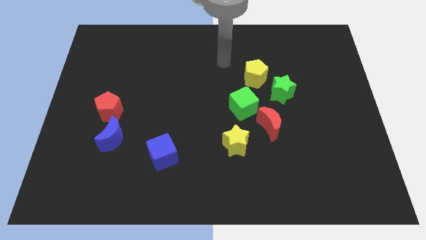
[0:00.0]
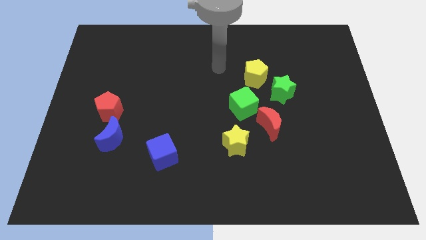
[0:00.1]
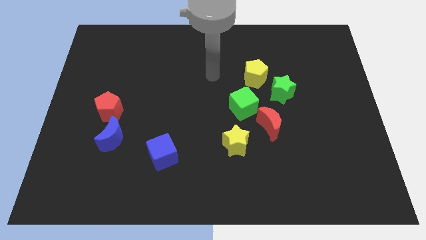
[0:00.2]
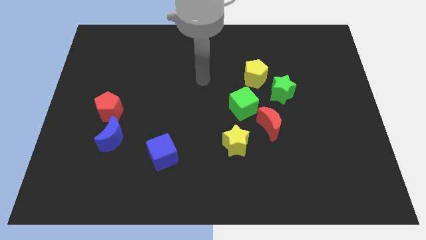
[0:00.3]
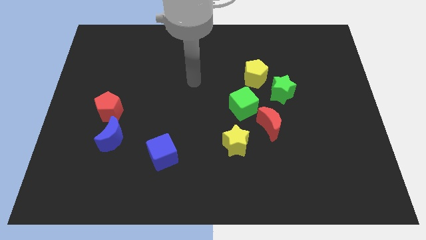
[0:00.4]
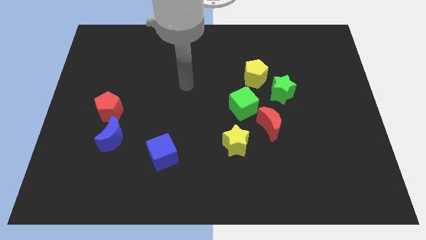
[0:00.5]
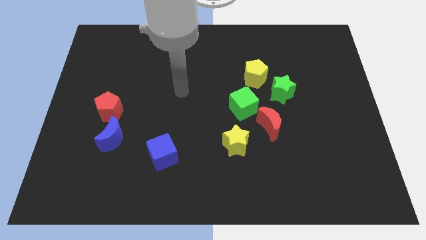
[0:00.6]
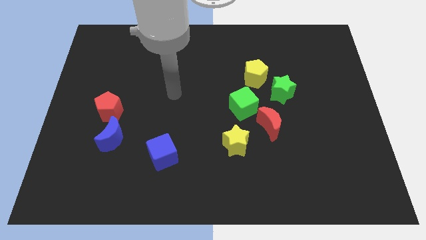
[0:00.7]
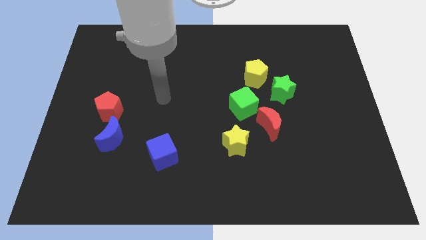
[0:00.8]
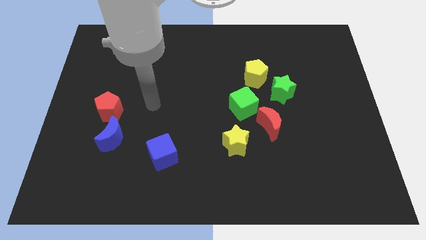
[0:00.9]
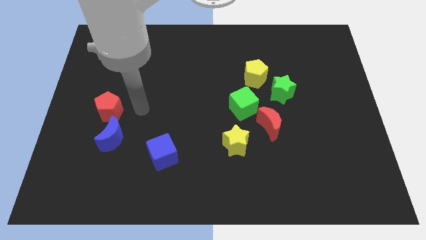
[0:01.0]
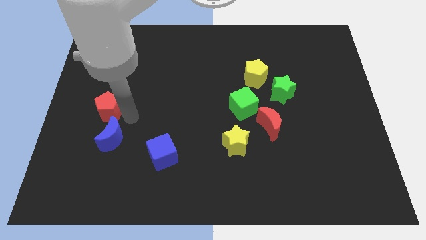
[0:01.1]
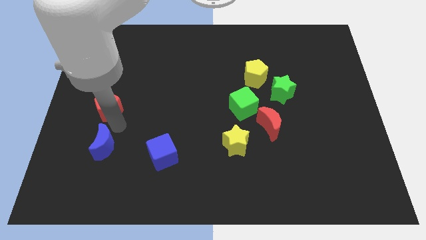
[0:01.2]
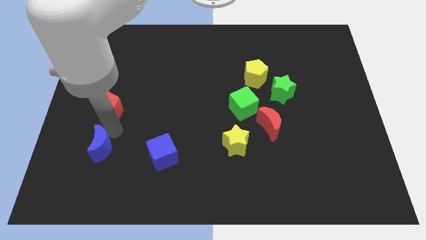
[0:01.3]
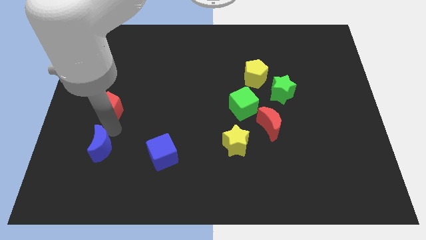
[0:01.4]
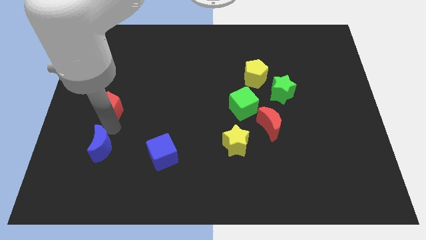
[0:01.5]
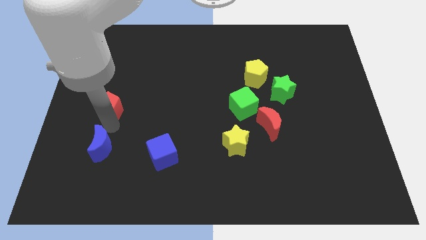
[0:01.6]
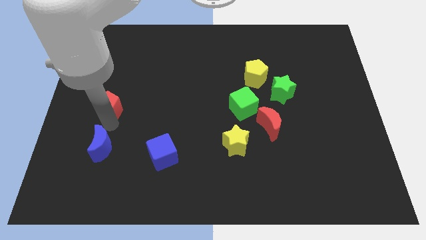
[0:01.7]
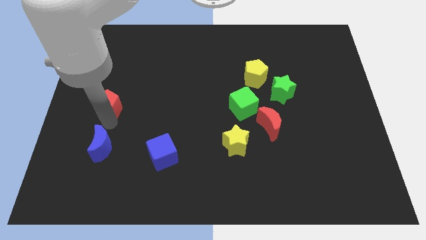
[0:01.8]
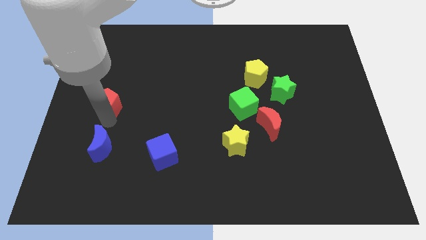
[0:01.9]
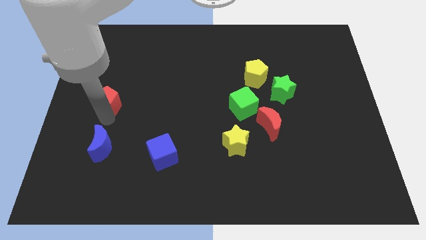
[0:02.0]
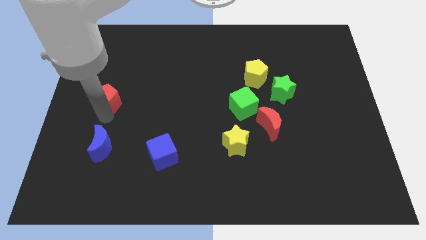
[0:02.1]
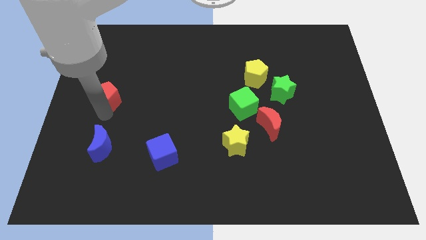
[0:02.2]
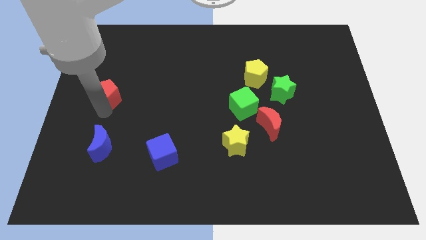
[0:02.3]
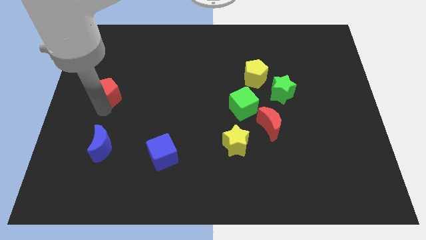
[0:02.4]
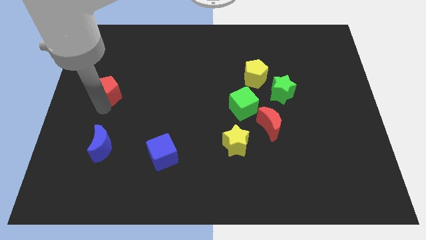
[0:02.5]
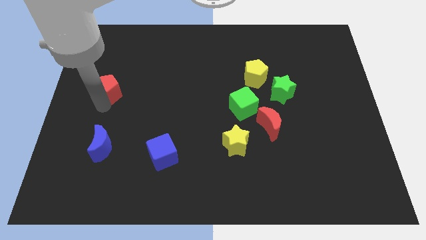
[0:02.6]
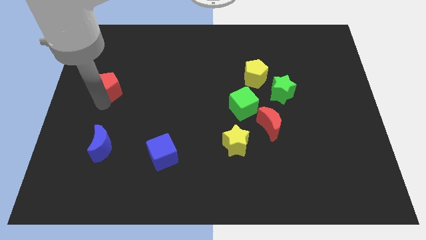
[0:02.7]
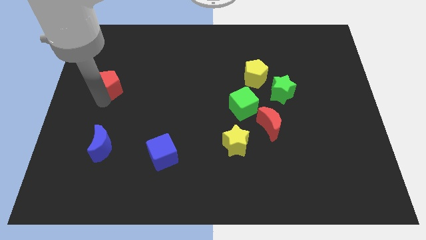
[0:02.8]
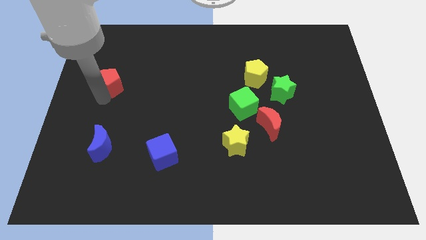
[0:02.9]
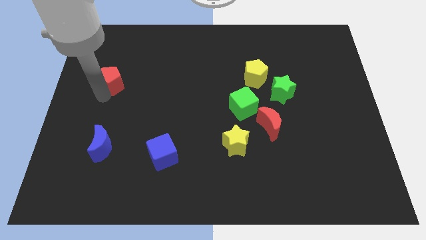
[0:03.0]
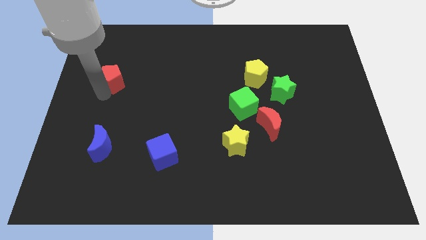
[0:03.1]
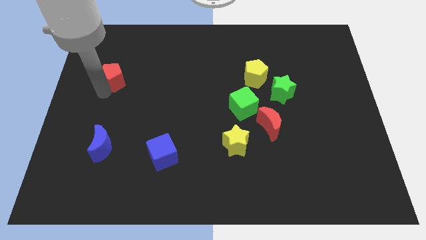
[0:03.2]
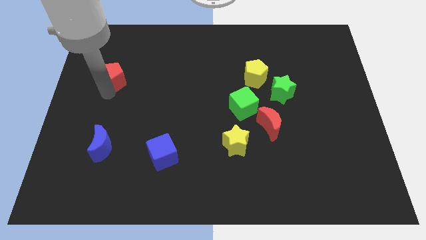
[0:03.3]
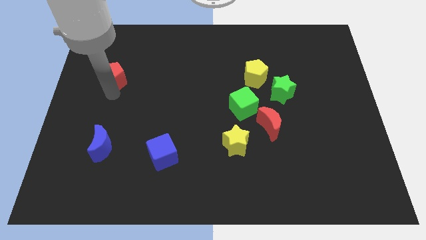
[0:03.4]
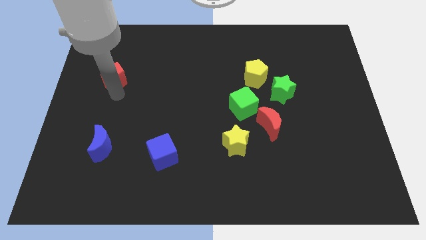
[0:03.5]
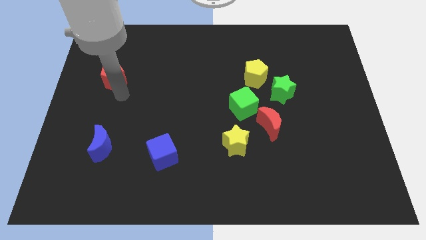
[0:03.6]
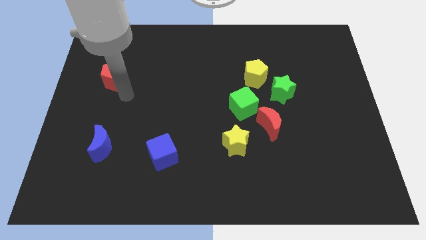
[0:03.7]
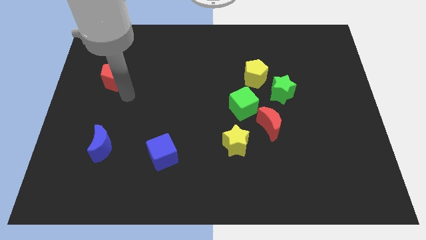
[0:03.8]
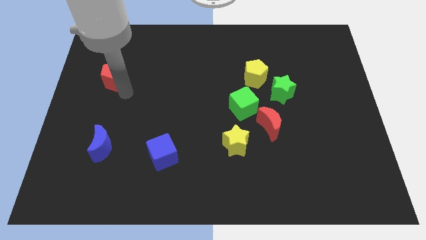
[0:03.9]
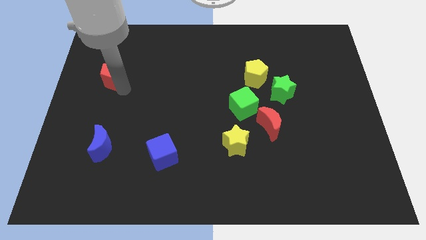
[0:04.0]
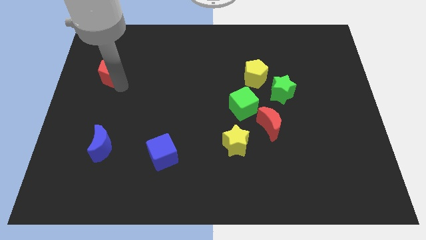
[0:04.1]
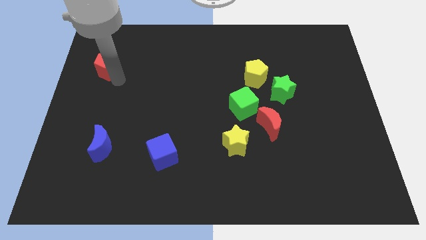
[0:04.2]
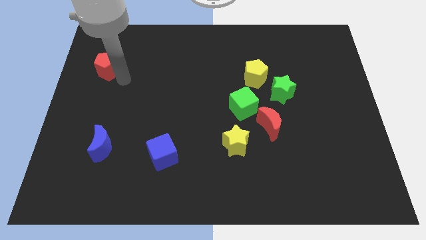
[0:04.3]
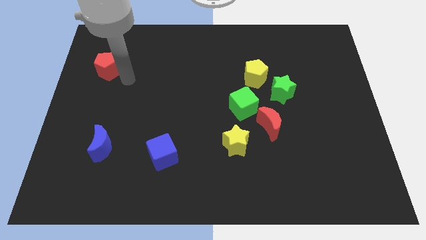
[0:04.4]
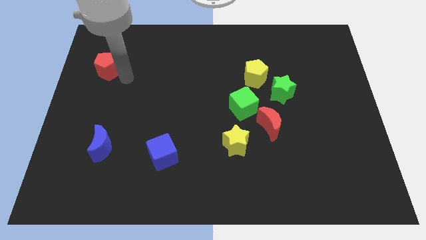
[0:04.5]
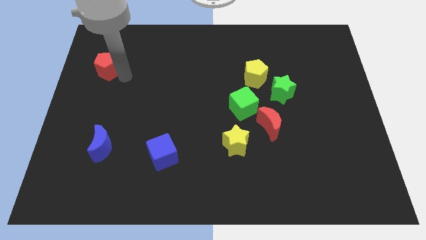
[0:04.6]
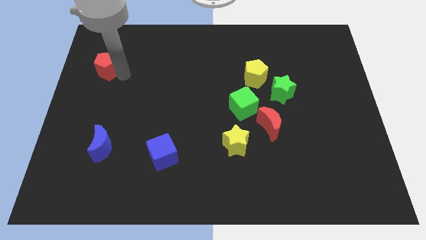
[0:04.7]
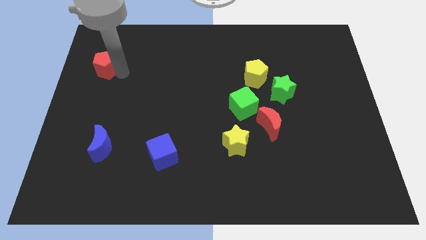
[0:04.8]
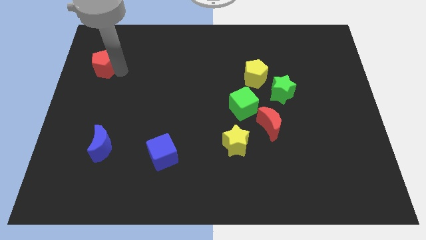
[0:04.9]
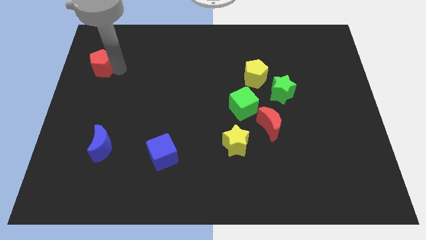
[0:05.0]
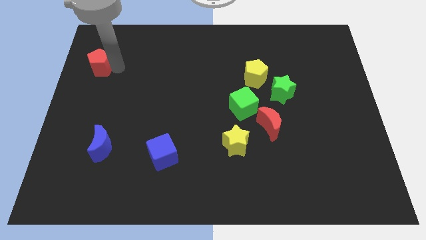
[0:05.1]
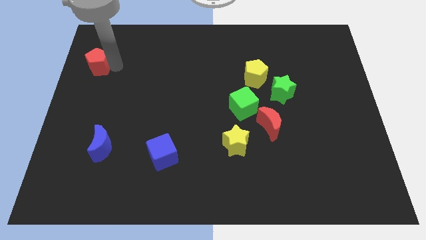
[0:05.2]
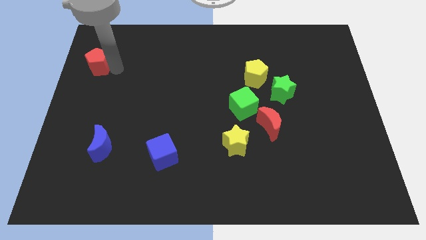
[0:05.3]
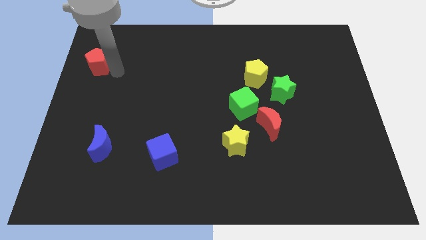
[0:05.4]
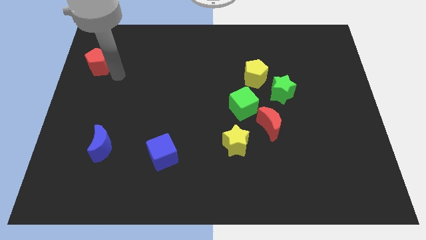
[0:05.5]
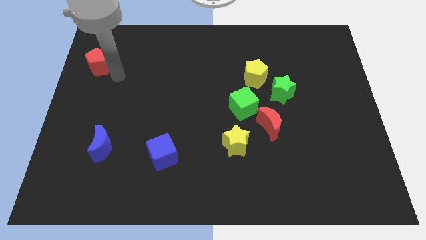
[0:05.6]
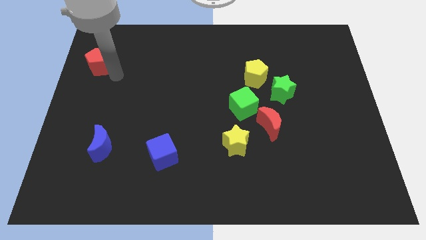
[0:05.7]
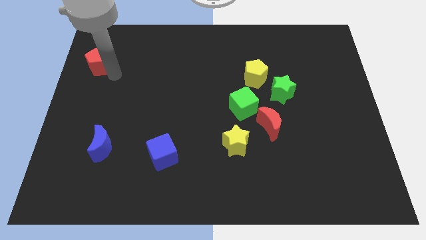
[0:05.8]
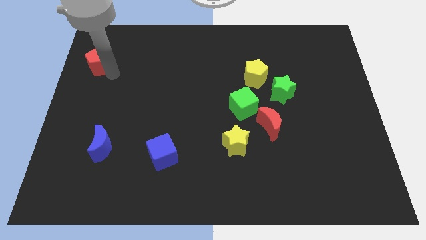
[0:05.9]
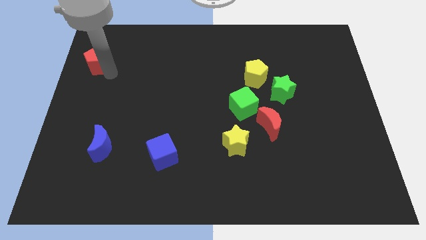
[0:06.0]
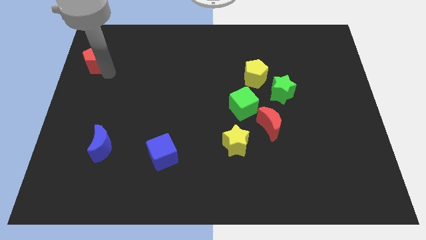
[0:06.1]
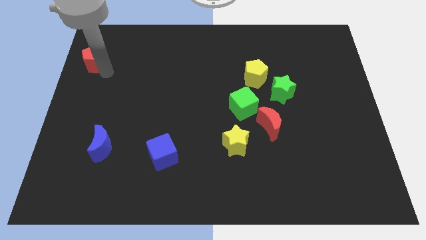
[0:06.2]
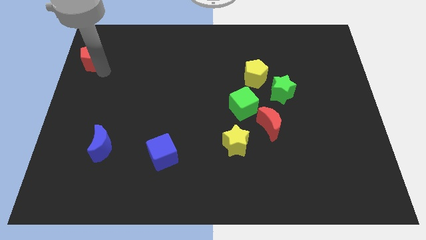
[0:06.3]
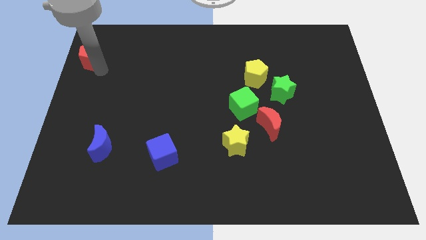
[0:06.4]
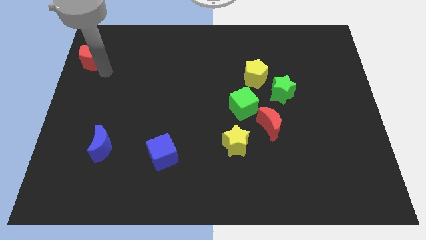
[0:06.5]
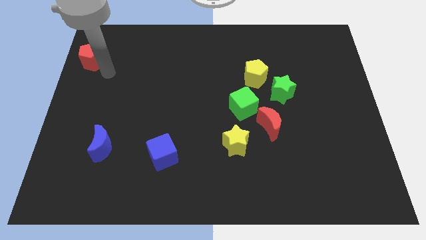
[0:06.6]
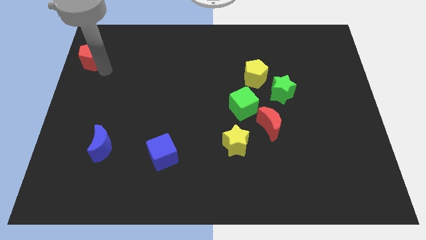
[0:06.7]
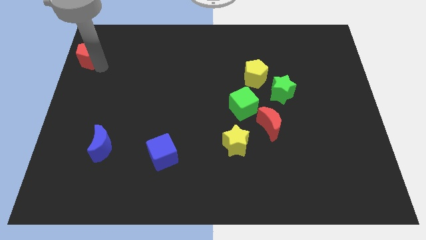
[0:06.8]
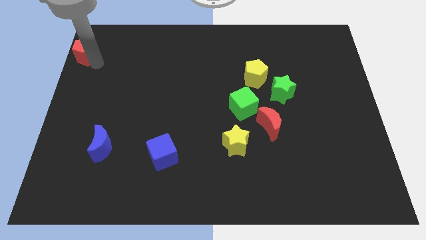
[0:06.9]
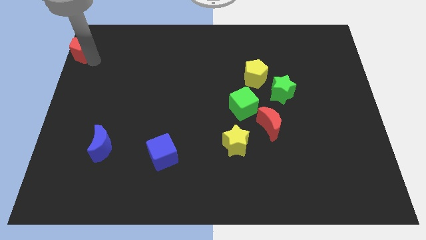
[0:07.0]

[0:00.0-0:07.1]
move the red pentagon to the upper left corner
